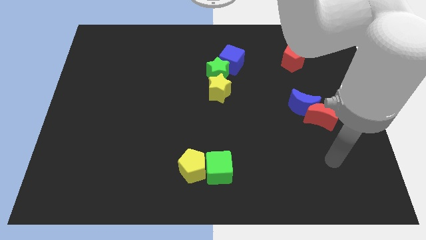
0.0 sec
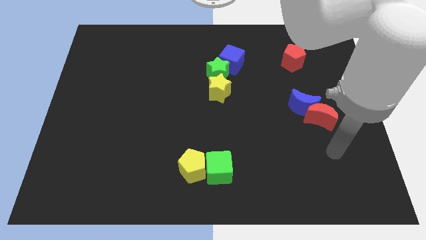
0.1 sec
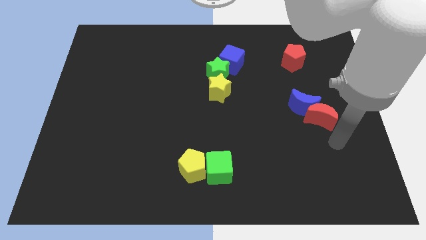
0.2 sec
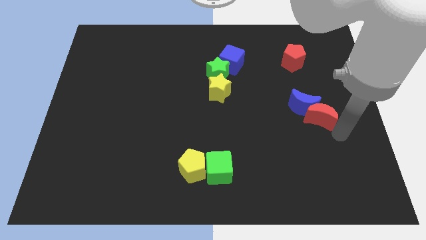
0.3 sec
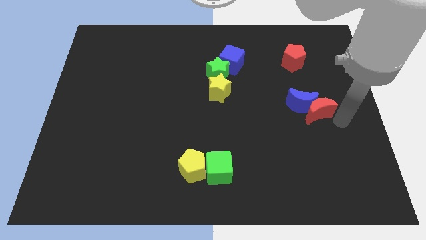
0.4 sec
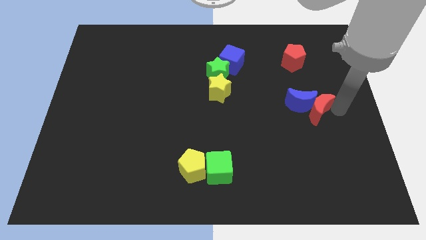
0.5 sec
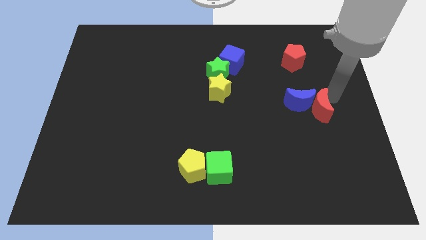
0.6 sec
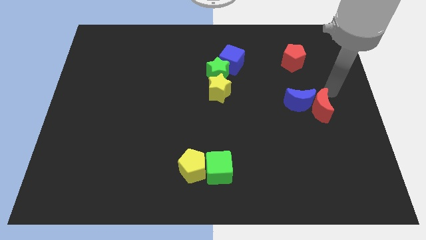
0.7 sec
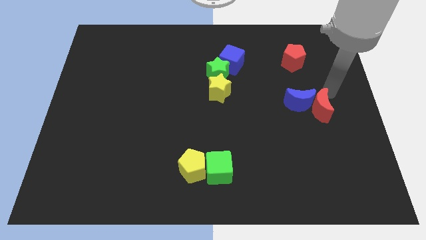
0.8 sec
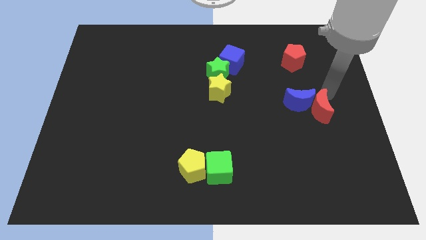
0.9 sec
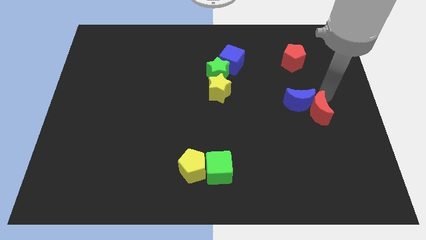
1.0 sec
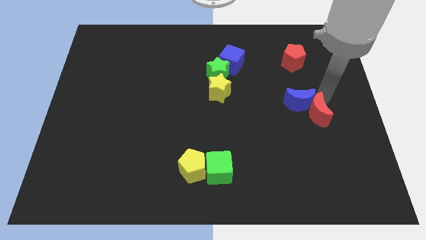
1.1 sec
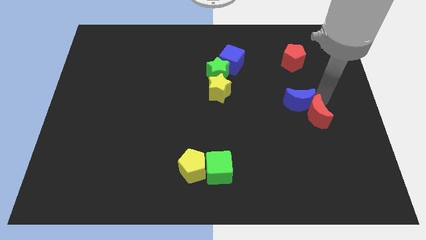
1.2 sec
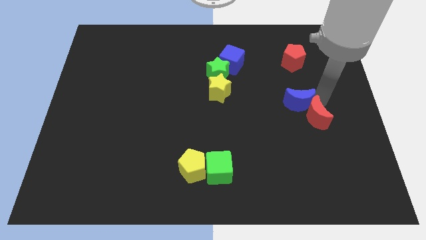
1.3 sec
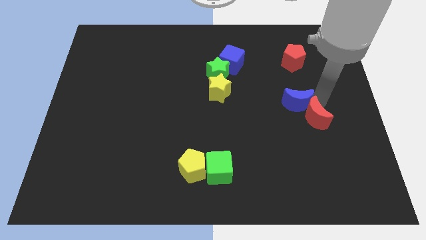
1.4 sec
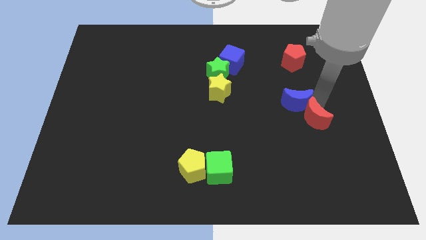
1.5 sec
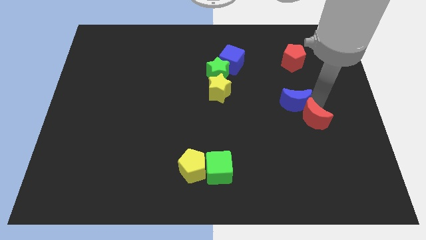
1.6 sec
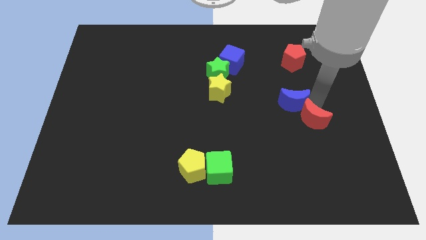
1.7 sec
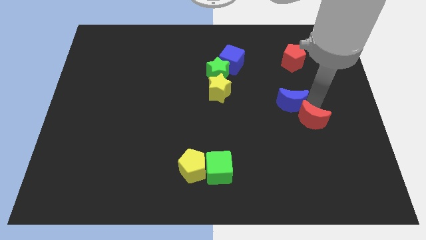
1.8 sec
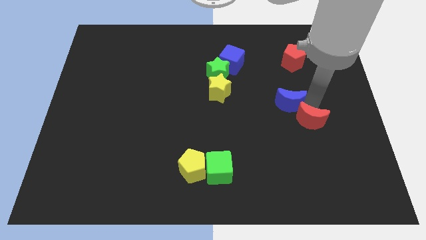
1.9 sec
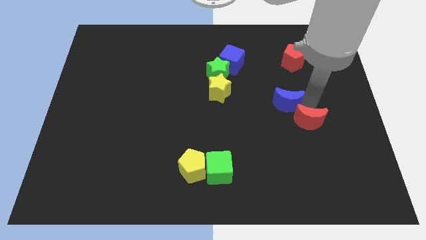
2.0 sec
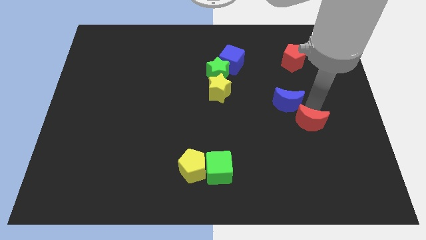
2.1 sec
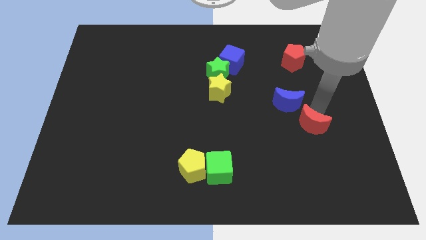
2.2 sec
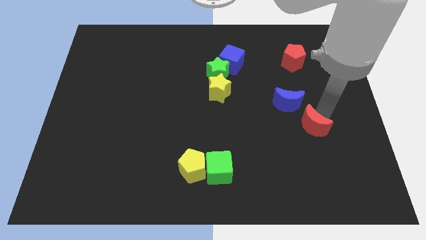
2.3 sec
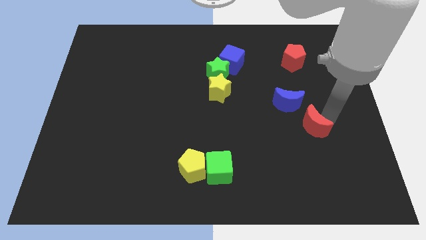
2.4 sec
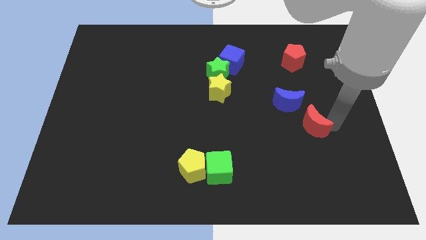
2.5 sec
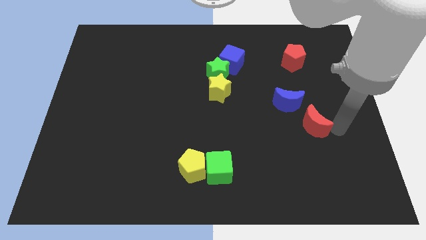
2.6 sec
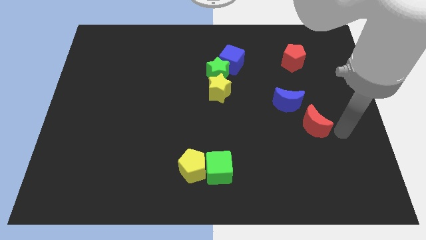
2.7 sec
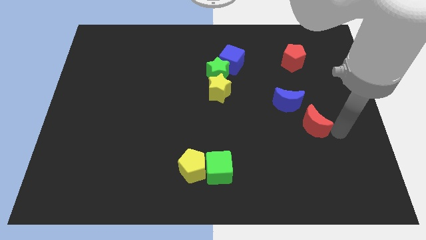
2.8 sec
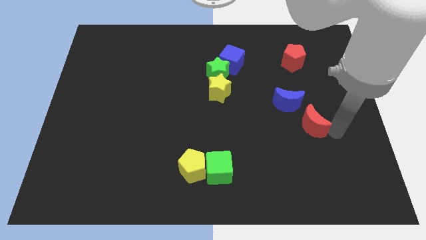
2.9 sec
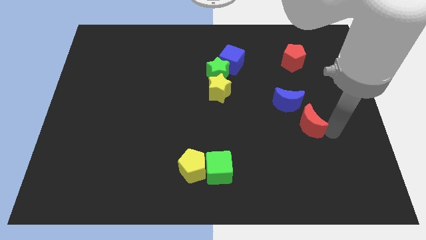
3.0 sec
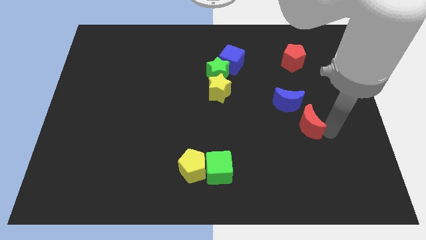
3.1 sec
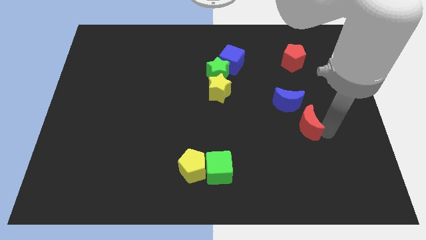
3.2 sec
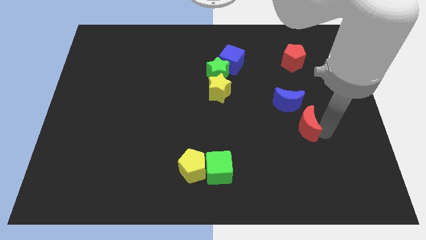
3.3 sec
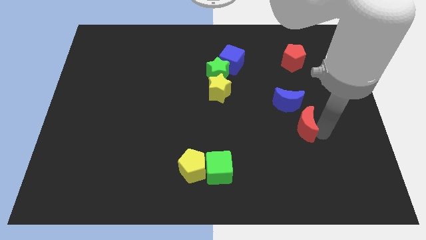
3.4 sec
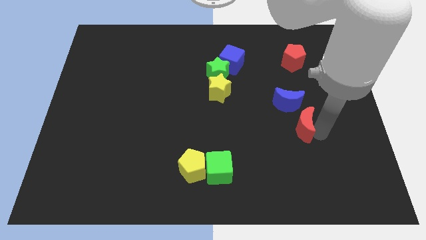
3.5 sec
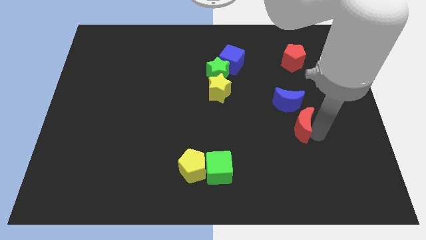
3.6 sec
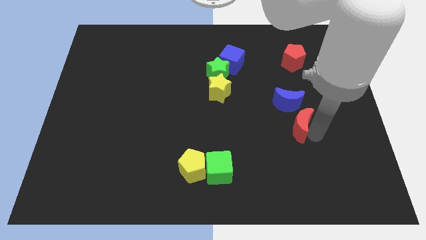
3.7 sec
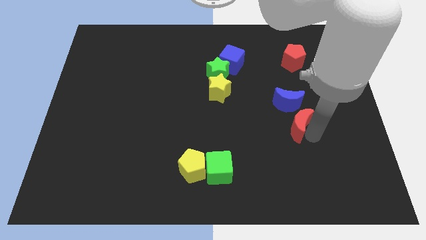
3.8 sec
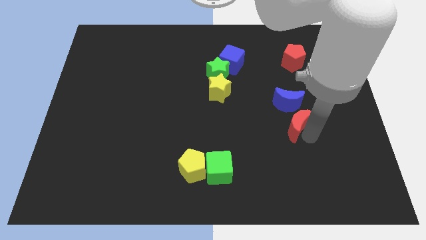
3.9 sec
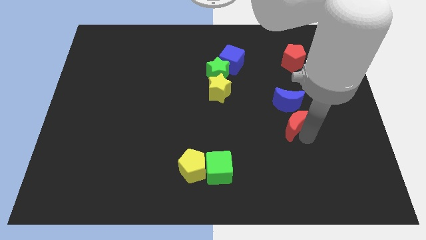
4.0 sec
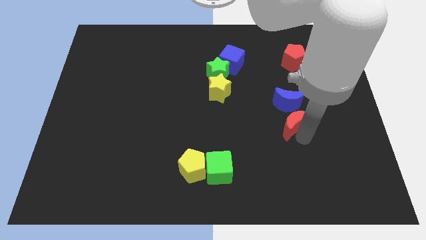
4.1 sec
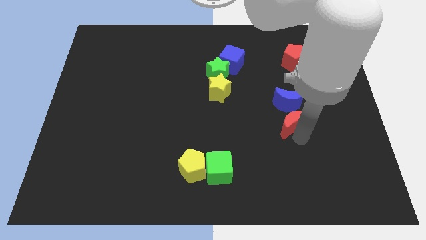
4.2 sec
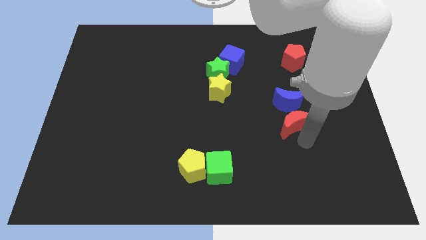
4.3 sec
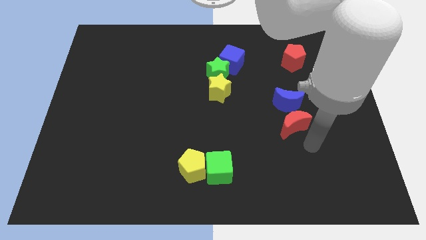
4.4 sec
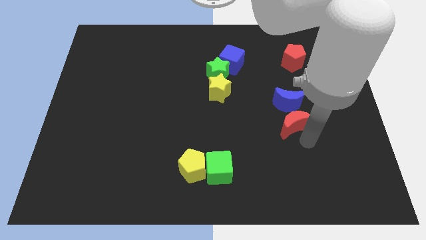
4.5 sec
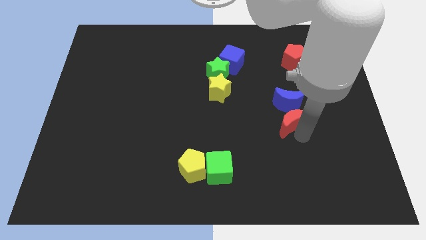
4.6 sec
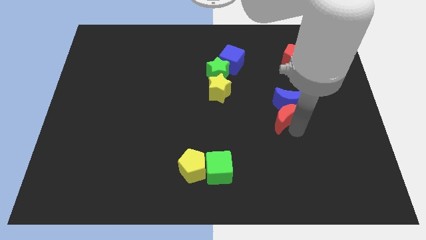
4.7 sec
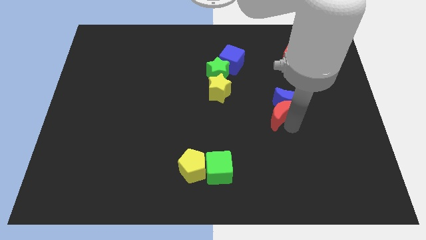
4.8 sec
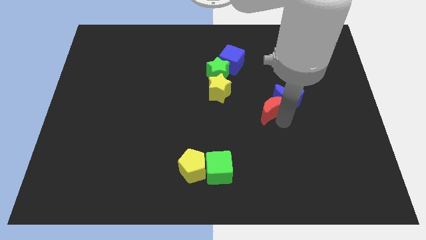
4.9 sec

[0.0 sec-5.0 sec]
slide the red moon diagonally up and to the left a little

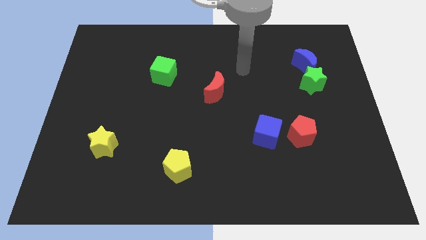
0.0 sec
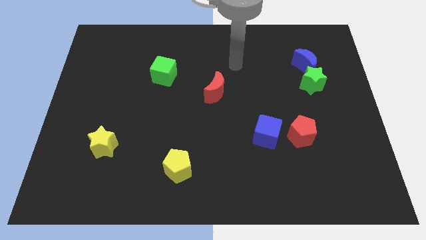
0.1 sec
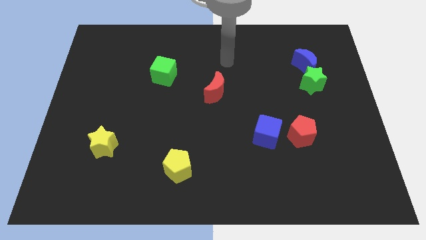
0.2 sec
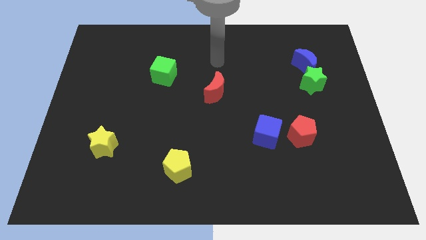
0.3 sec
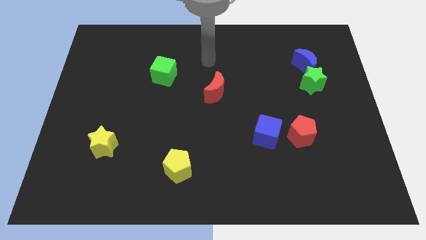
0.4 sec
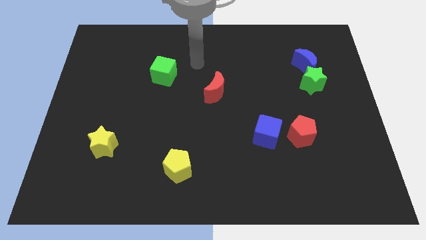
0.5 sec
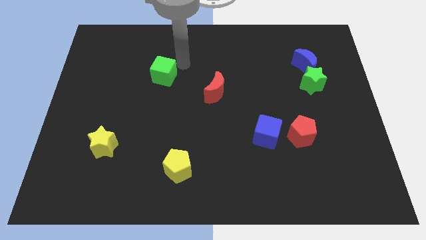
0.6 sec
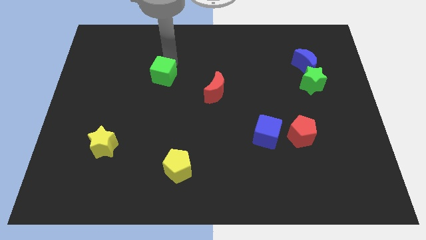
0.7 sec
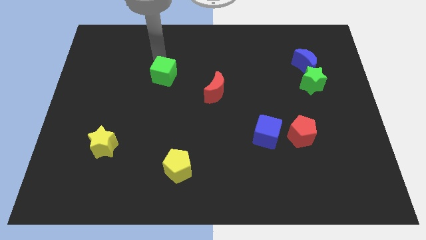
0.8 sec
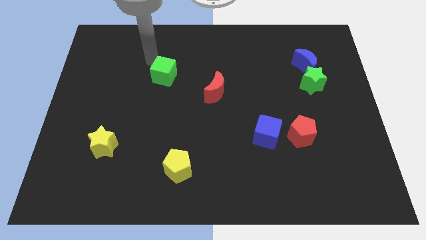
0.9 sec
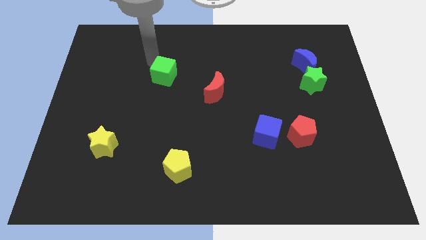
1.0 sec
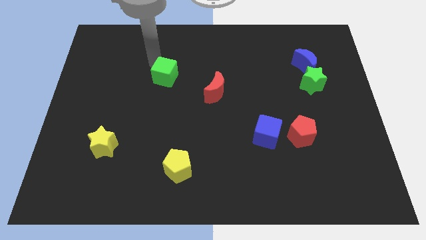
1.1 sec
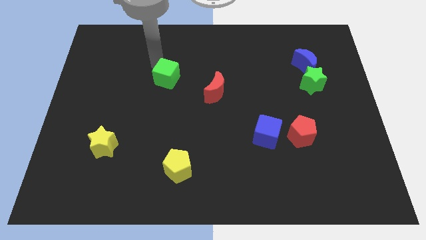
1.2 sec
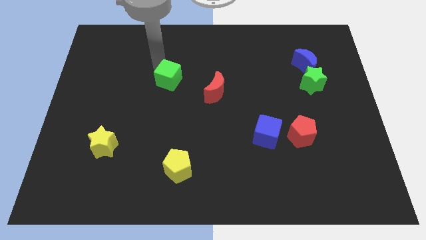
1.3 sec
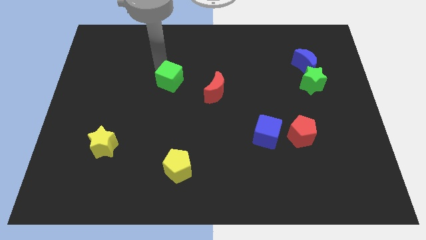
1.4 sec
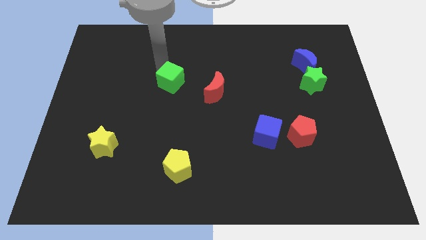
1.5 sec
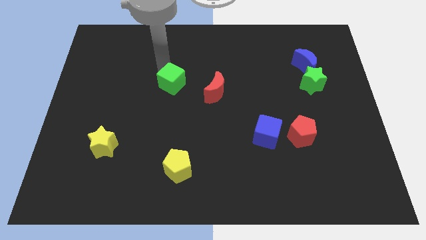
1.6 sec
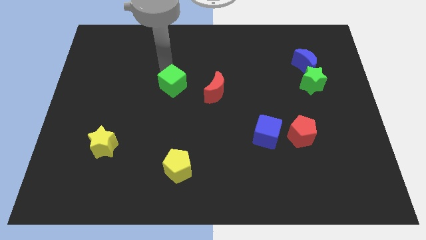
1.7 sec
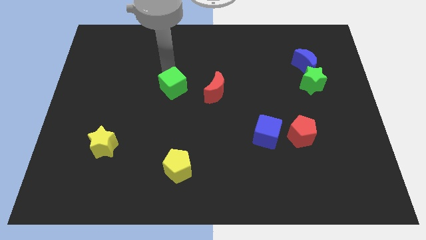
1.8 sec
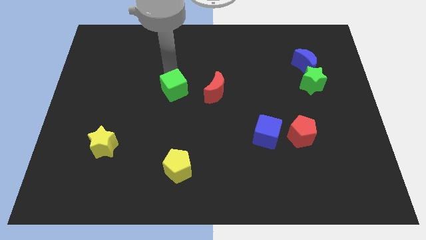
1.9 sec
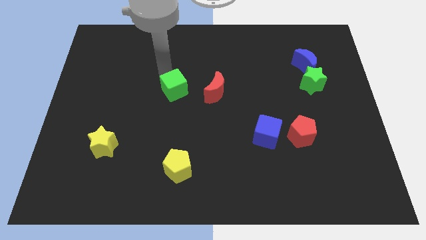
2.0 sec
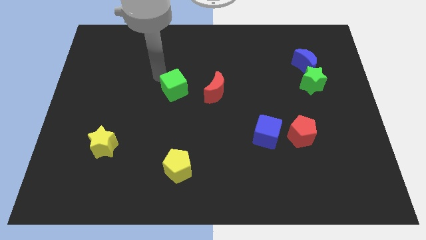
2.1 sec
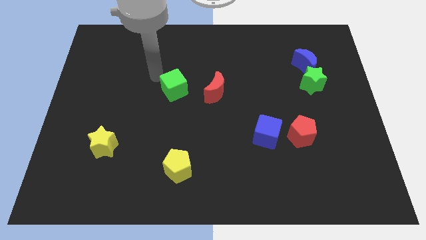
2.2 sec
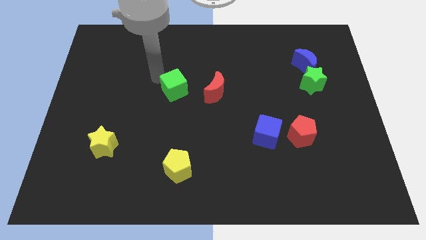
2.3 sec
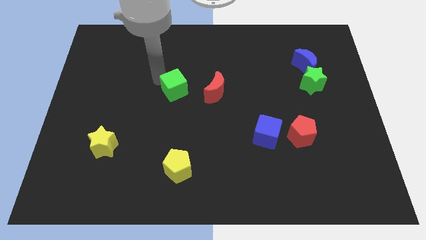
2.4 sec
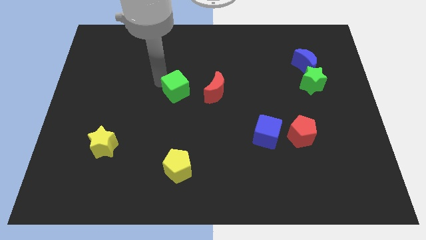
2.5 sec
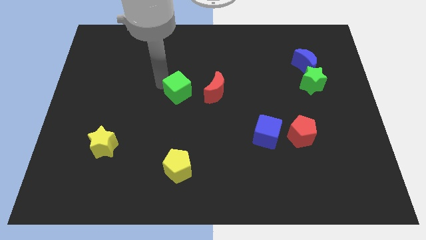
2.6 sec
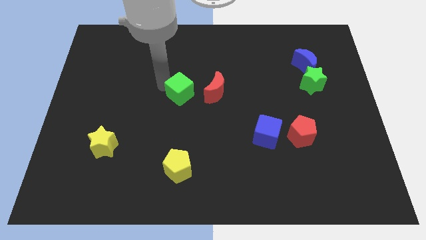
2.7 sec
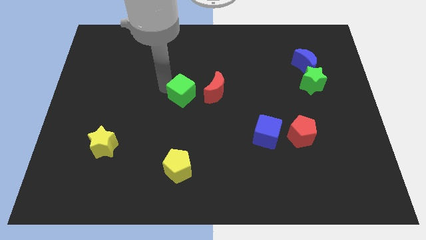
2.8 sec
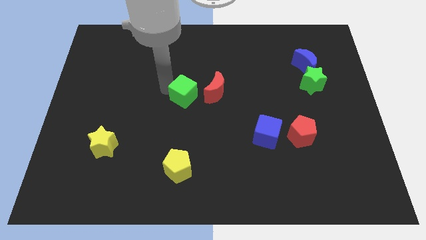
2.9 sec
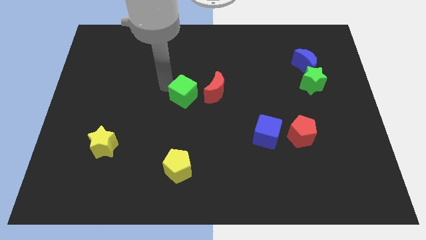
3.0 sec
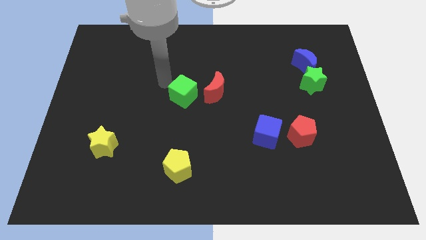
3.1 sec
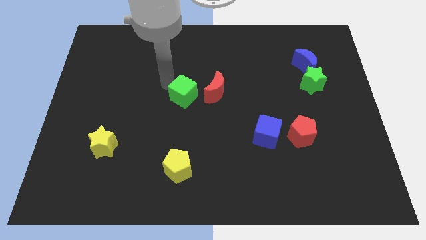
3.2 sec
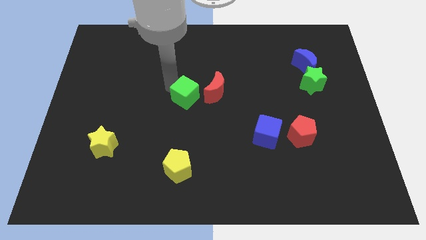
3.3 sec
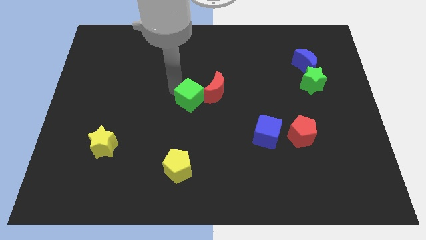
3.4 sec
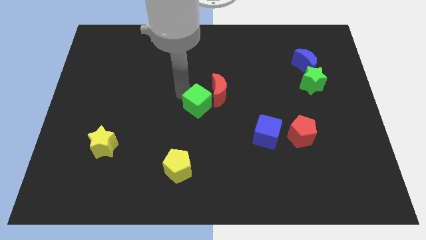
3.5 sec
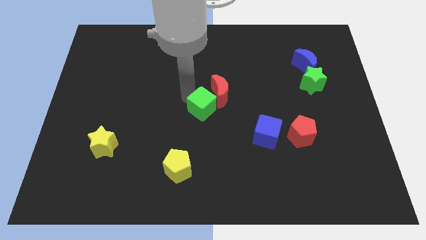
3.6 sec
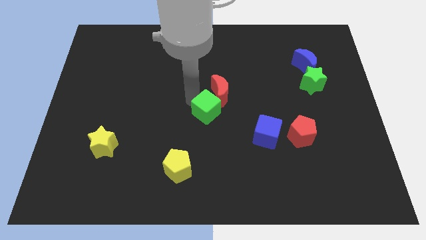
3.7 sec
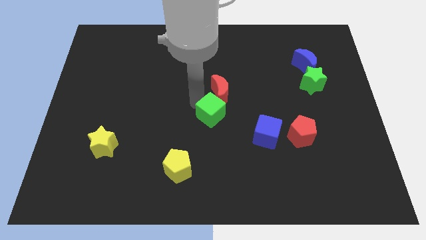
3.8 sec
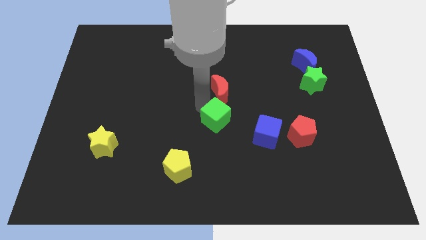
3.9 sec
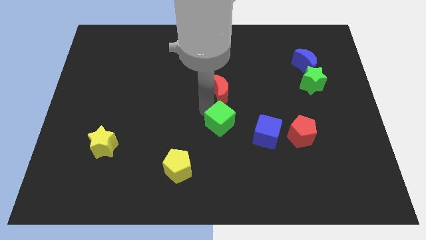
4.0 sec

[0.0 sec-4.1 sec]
move the green cube downwards and then right
